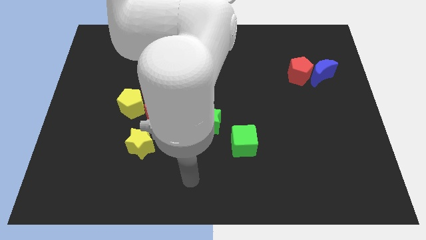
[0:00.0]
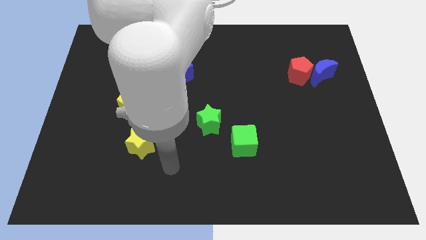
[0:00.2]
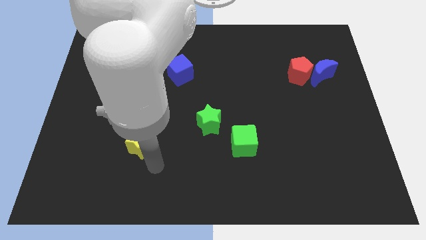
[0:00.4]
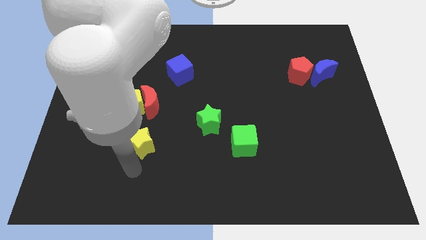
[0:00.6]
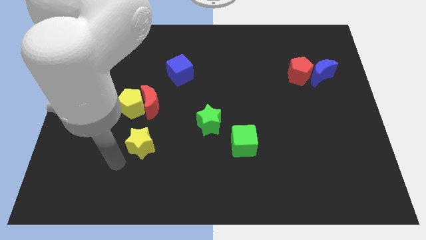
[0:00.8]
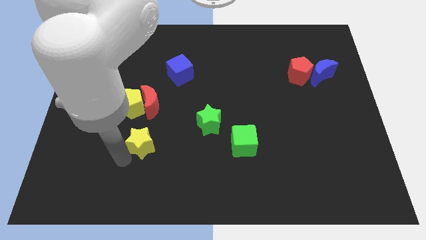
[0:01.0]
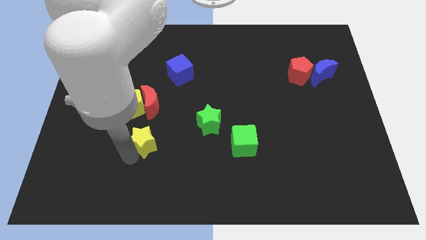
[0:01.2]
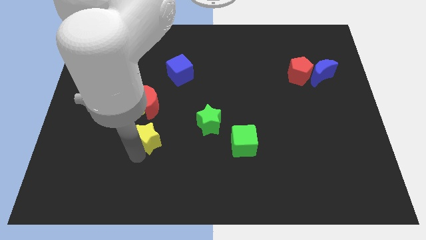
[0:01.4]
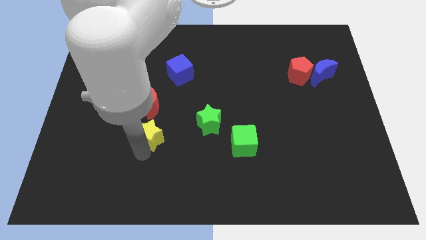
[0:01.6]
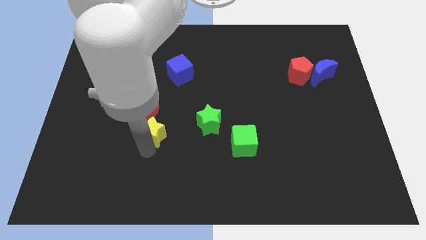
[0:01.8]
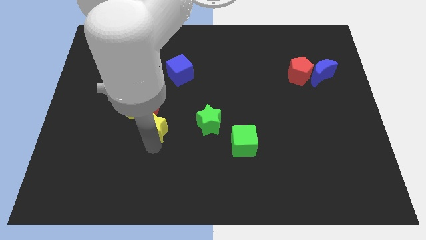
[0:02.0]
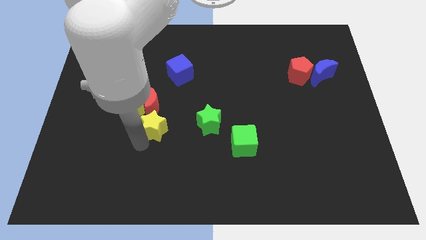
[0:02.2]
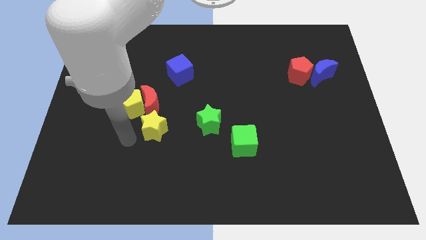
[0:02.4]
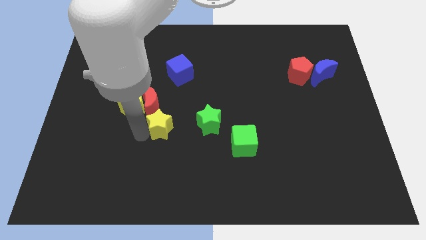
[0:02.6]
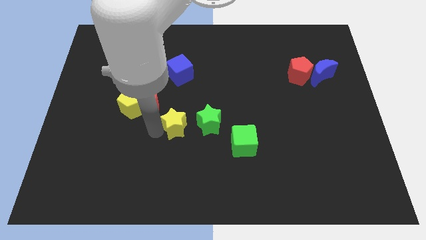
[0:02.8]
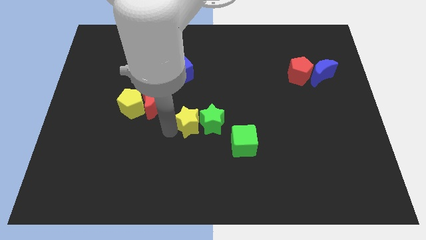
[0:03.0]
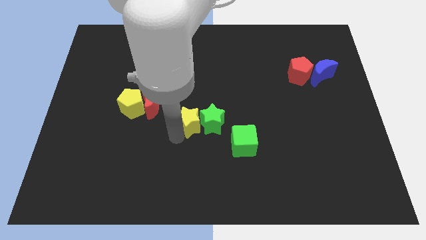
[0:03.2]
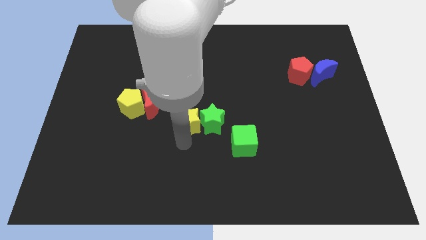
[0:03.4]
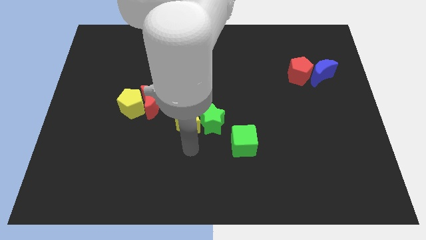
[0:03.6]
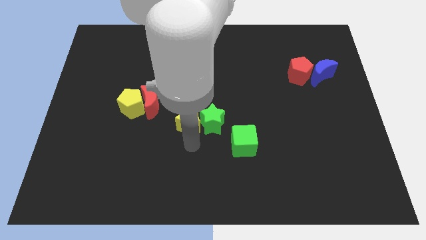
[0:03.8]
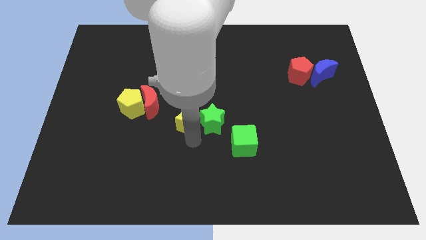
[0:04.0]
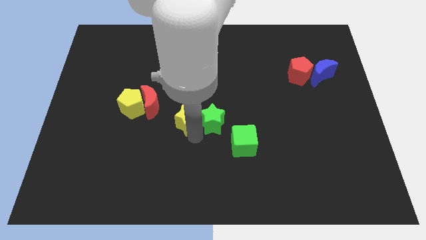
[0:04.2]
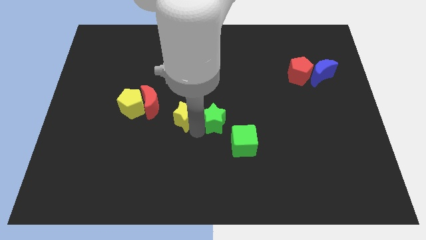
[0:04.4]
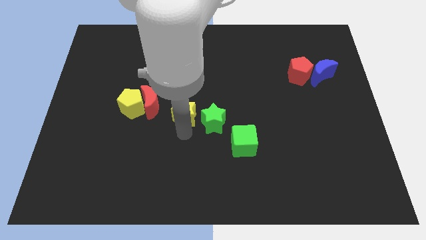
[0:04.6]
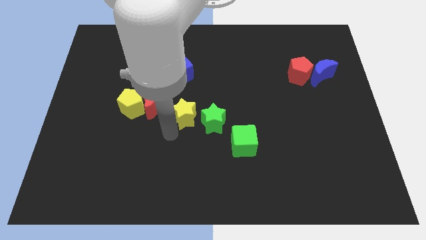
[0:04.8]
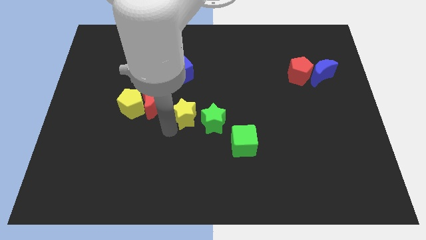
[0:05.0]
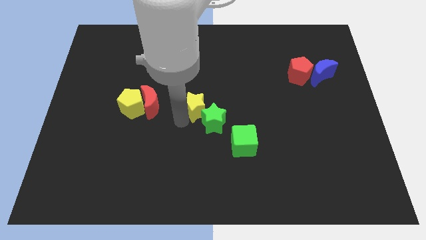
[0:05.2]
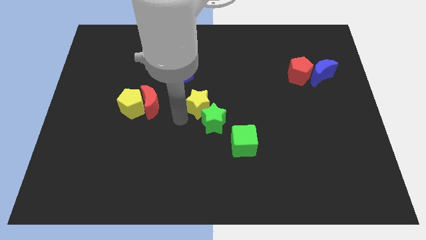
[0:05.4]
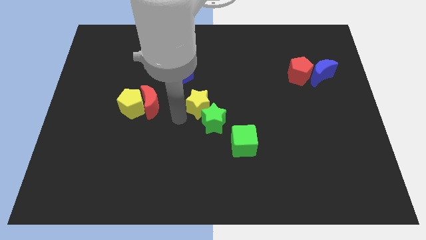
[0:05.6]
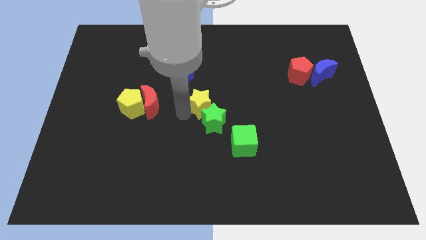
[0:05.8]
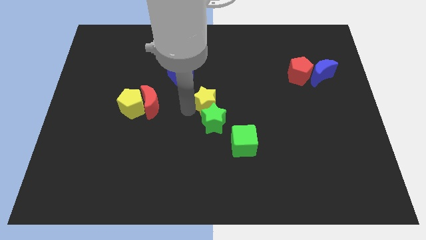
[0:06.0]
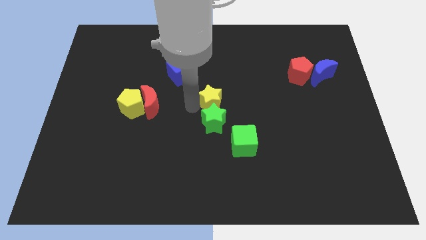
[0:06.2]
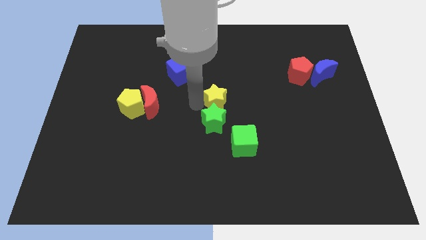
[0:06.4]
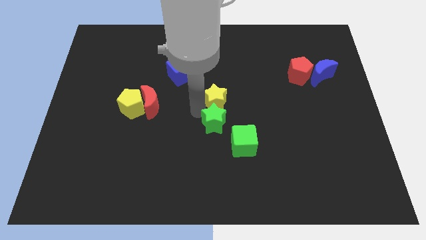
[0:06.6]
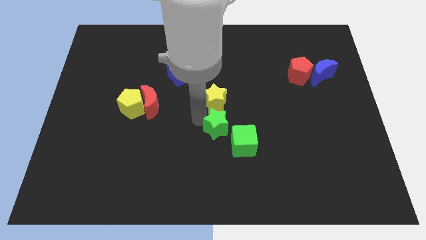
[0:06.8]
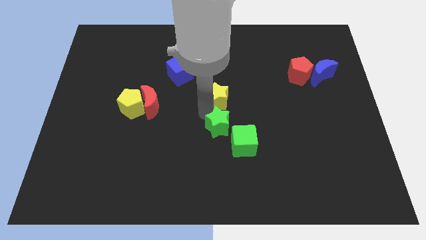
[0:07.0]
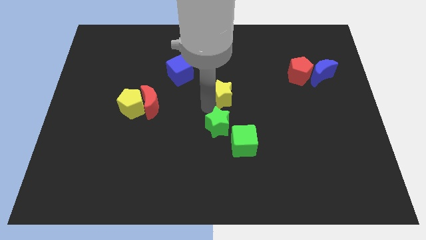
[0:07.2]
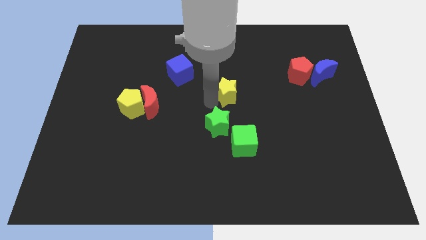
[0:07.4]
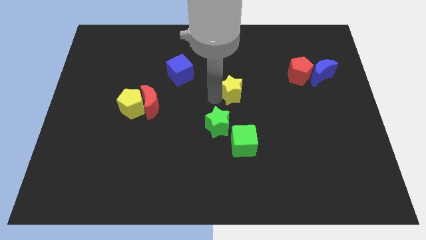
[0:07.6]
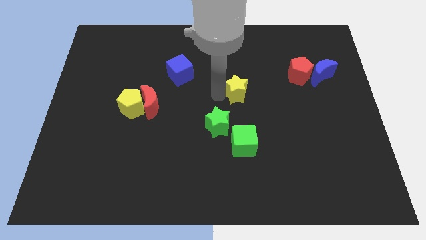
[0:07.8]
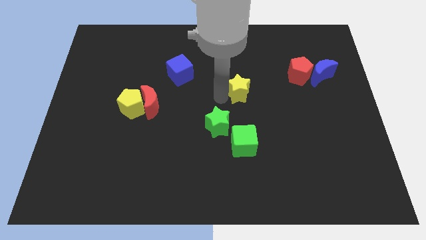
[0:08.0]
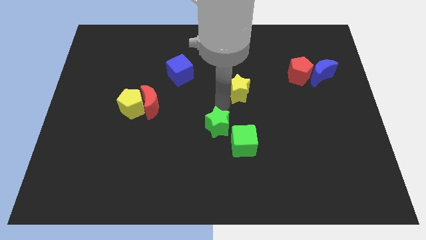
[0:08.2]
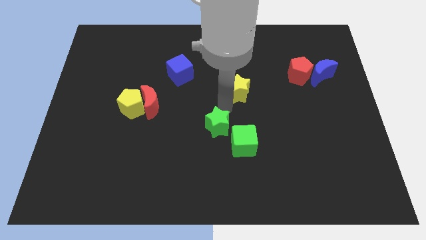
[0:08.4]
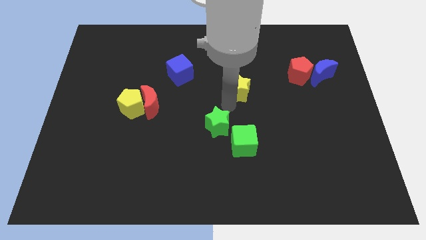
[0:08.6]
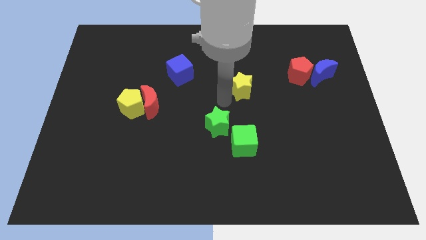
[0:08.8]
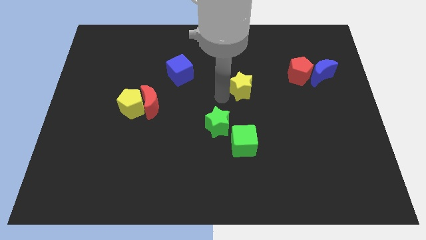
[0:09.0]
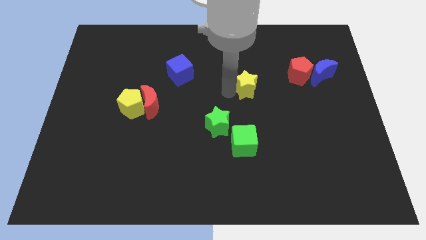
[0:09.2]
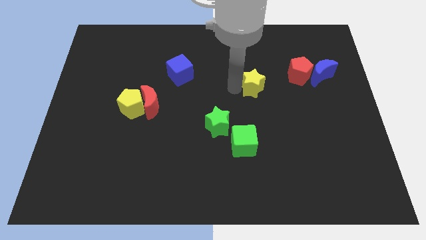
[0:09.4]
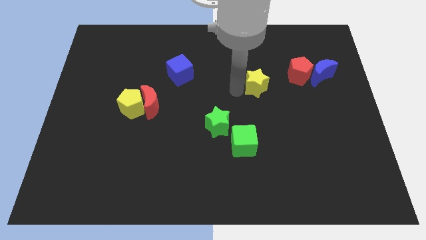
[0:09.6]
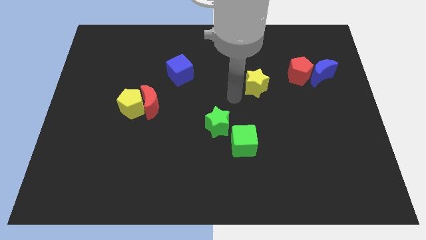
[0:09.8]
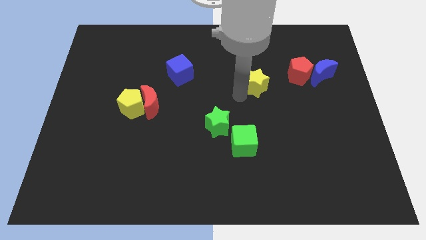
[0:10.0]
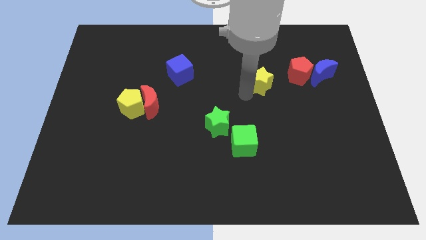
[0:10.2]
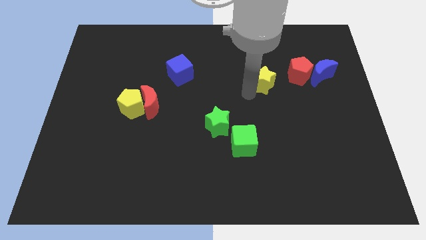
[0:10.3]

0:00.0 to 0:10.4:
slide the yellow star left of the blue moon

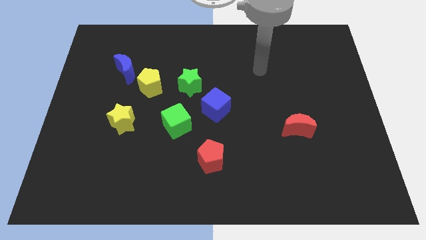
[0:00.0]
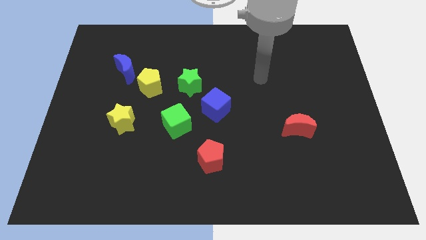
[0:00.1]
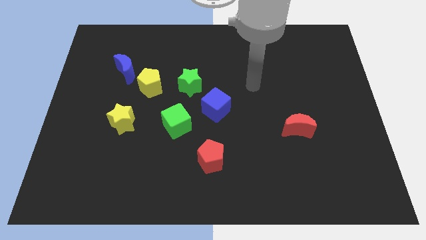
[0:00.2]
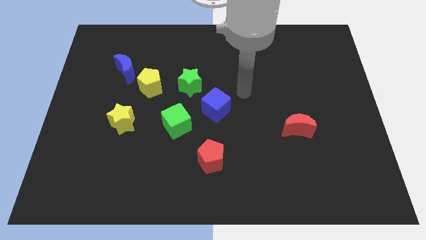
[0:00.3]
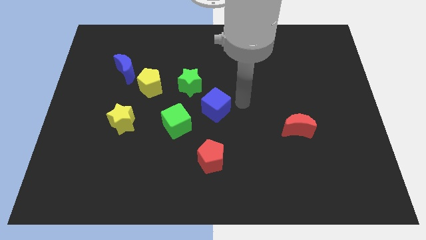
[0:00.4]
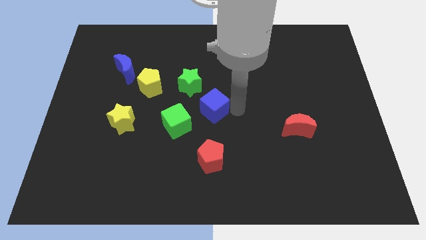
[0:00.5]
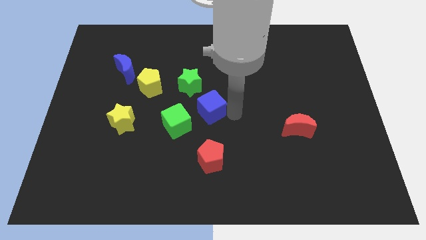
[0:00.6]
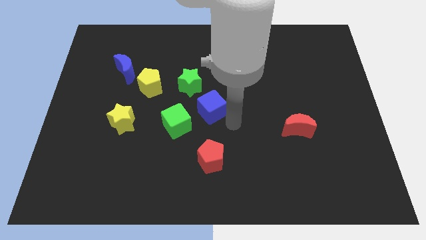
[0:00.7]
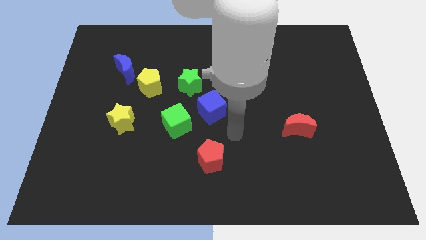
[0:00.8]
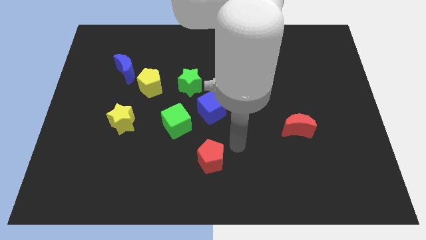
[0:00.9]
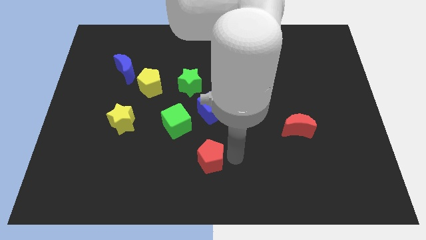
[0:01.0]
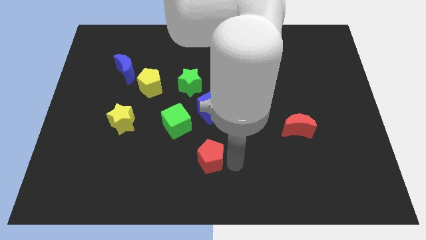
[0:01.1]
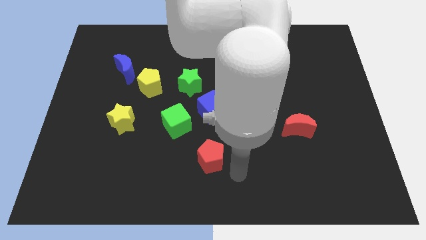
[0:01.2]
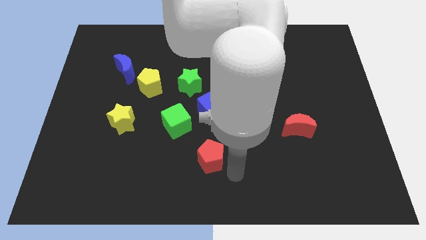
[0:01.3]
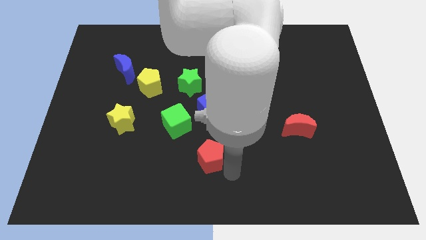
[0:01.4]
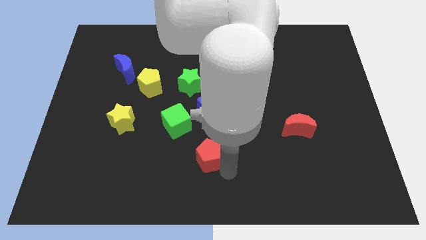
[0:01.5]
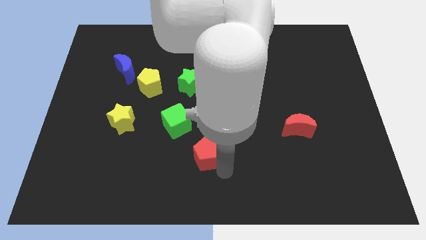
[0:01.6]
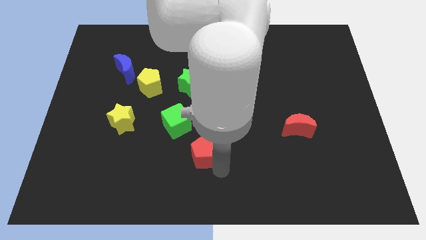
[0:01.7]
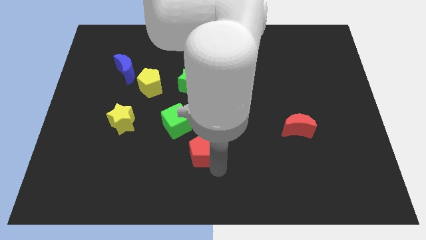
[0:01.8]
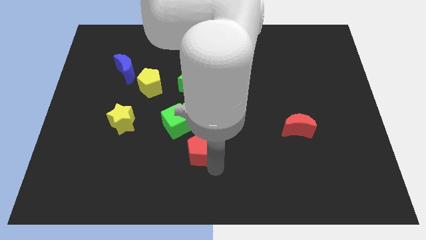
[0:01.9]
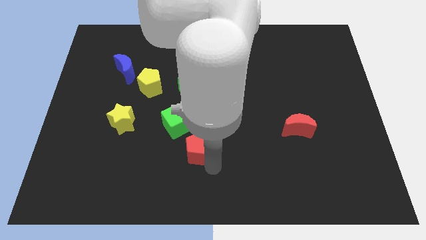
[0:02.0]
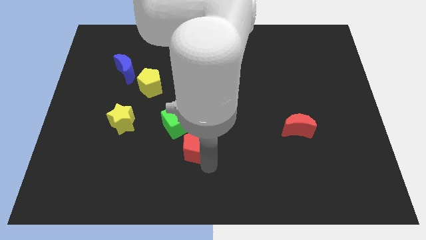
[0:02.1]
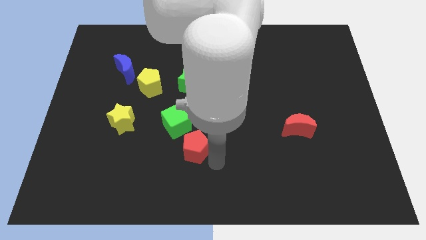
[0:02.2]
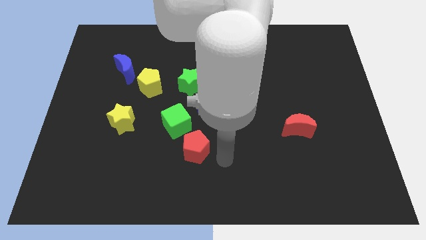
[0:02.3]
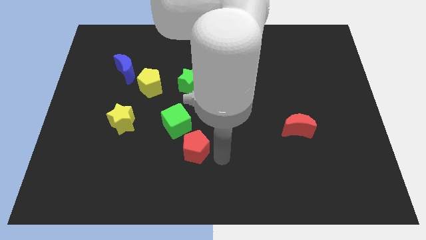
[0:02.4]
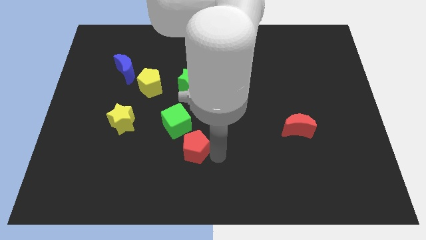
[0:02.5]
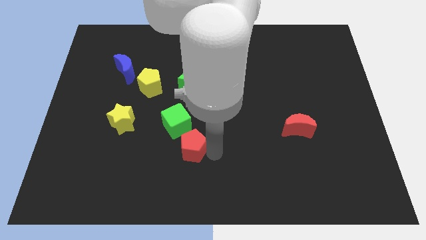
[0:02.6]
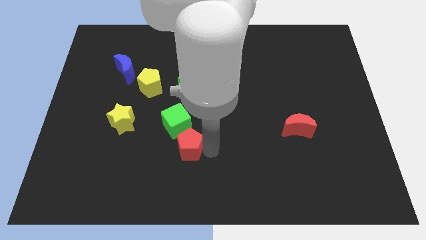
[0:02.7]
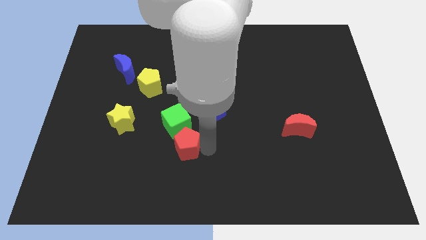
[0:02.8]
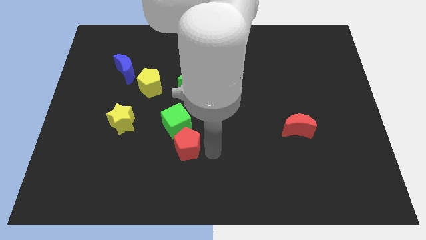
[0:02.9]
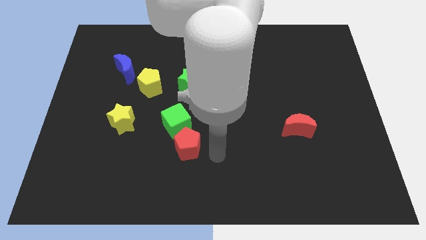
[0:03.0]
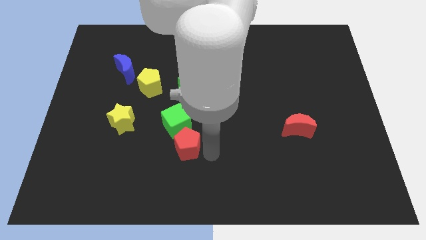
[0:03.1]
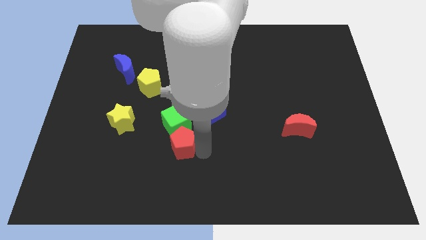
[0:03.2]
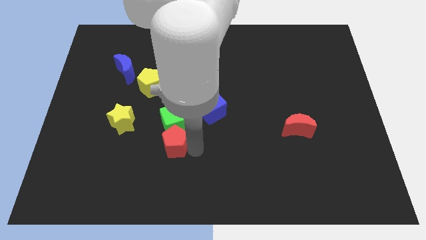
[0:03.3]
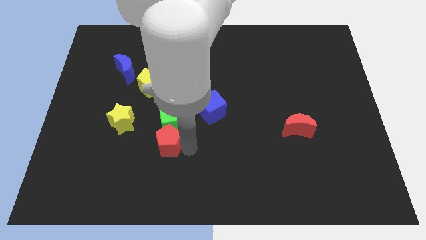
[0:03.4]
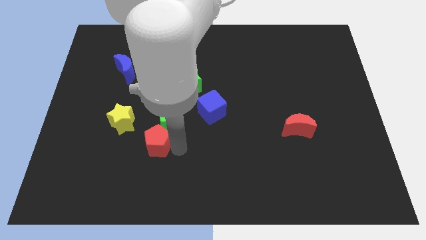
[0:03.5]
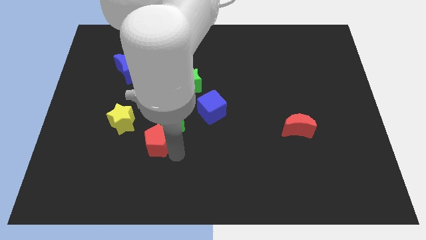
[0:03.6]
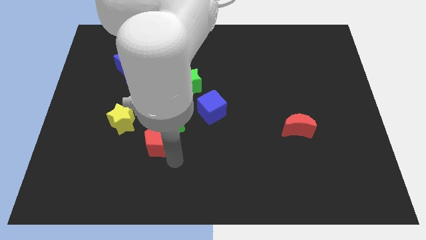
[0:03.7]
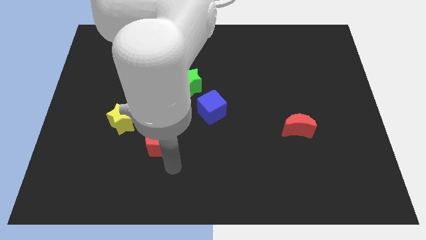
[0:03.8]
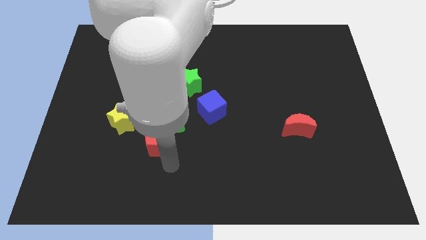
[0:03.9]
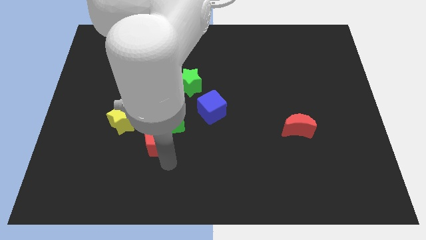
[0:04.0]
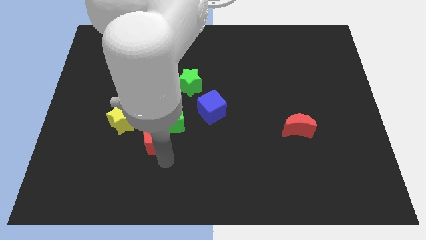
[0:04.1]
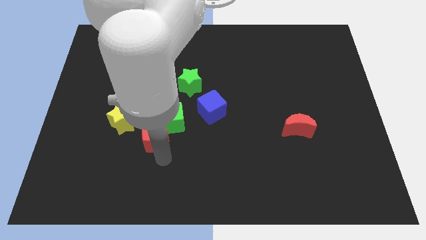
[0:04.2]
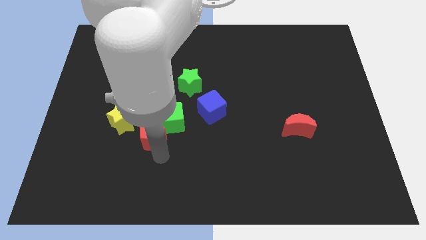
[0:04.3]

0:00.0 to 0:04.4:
slide the red pentagon to the bottom of the yellow pentagon
